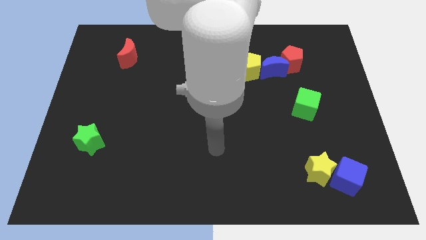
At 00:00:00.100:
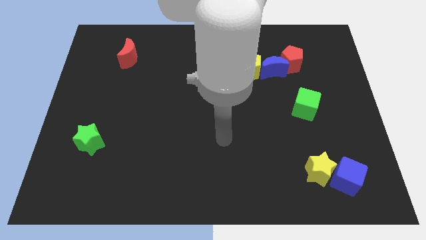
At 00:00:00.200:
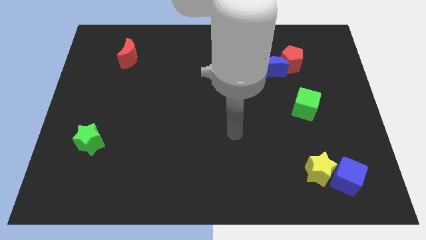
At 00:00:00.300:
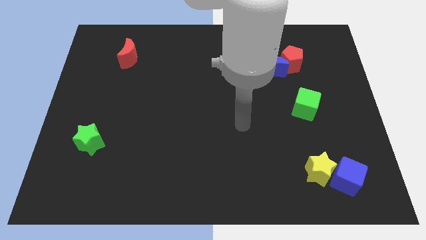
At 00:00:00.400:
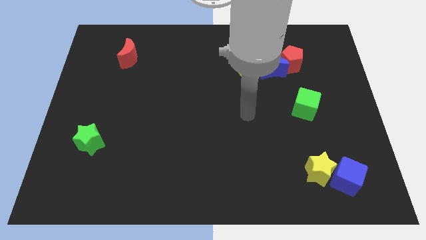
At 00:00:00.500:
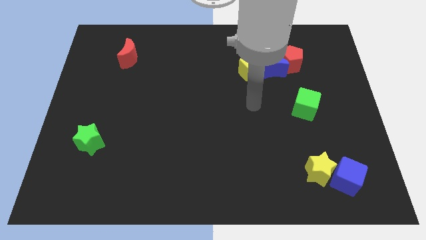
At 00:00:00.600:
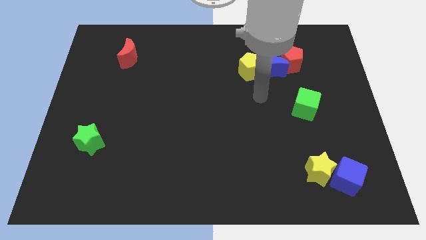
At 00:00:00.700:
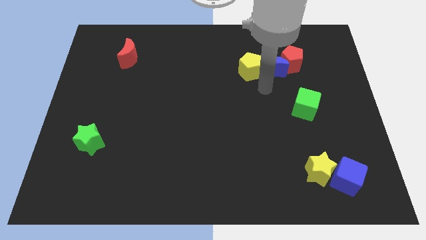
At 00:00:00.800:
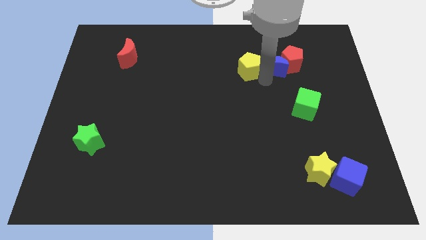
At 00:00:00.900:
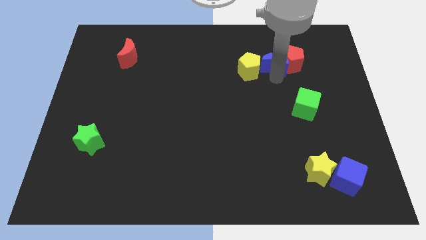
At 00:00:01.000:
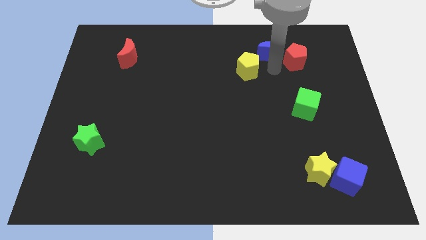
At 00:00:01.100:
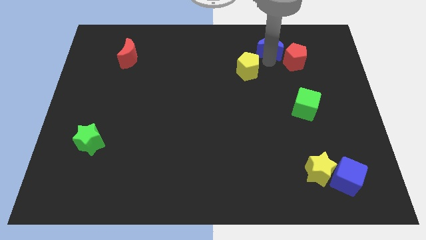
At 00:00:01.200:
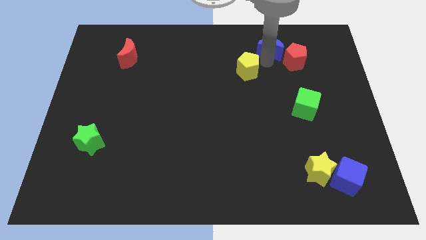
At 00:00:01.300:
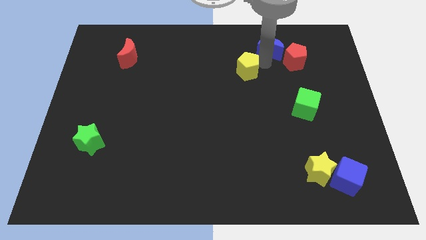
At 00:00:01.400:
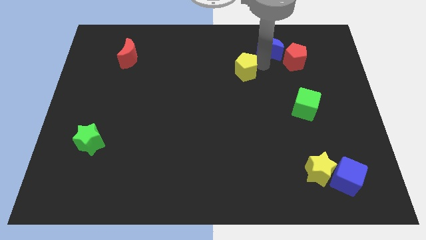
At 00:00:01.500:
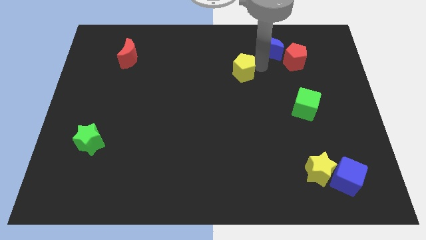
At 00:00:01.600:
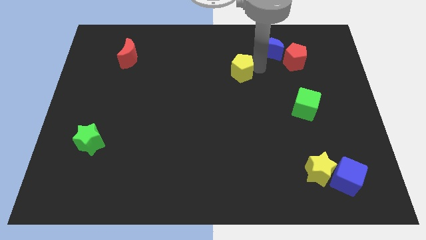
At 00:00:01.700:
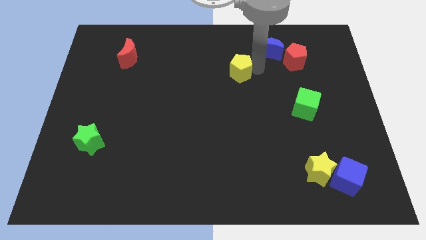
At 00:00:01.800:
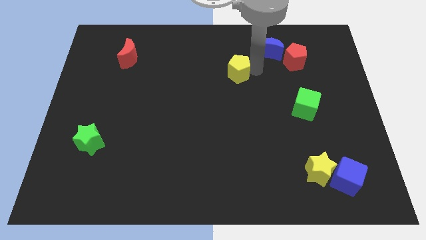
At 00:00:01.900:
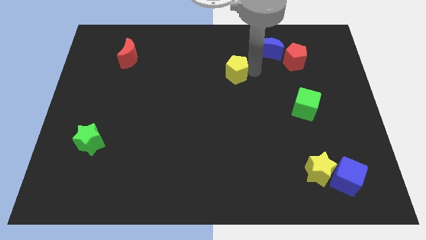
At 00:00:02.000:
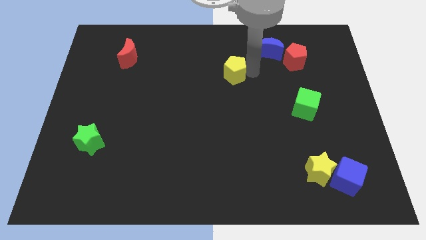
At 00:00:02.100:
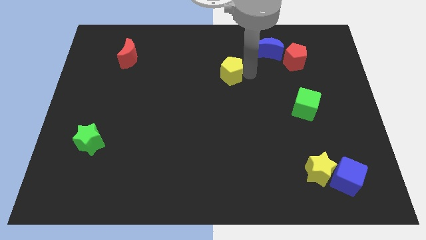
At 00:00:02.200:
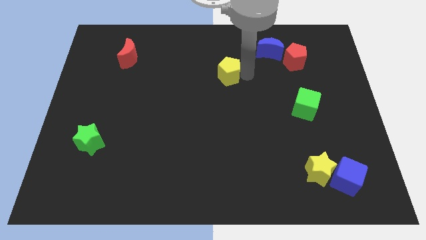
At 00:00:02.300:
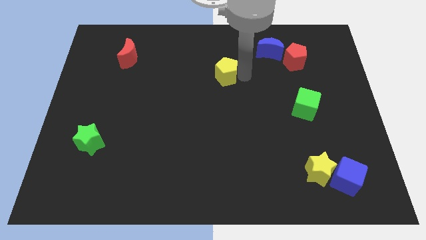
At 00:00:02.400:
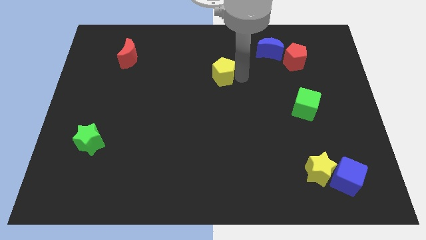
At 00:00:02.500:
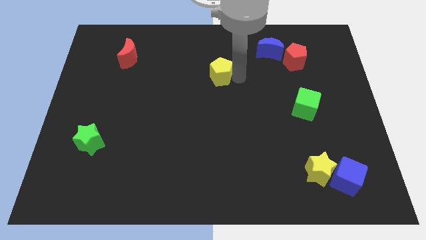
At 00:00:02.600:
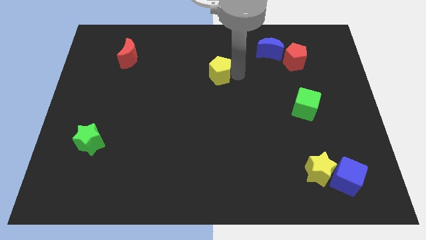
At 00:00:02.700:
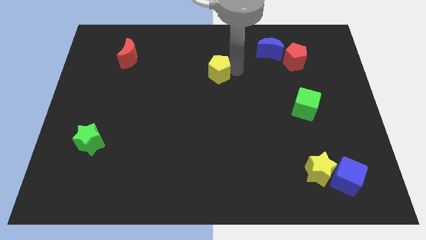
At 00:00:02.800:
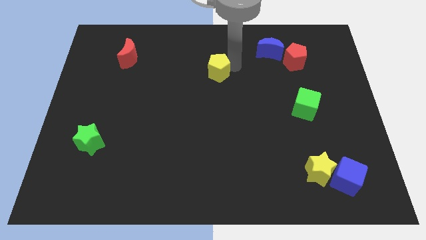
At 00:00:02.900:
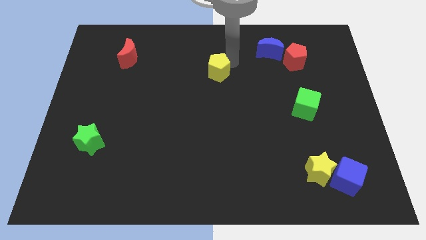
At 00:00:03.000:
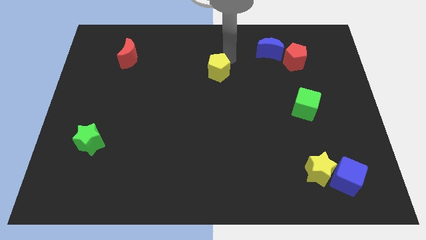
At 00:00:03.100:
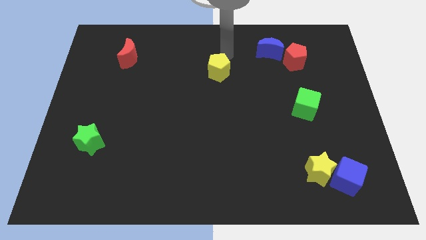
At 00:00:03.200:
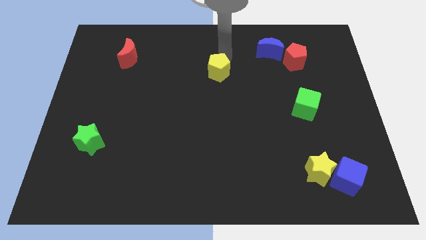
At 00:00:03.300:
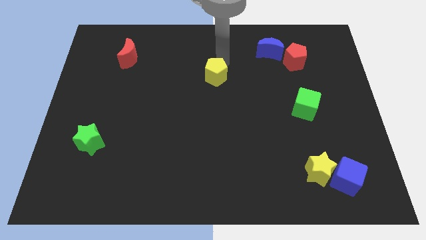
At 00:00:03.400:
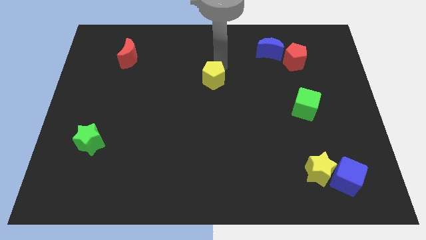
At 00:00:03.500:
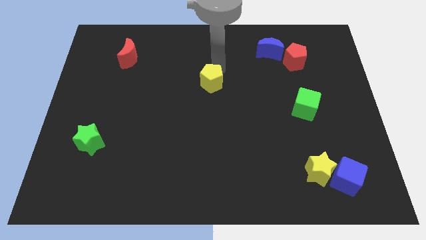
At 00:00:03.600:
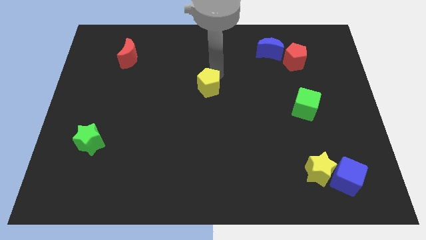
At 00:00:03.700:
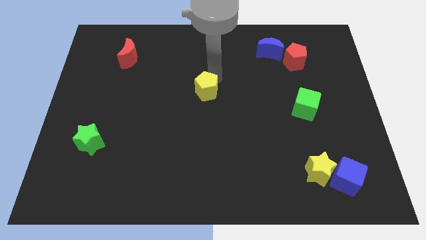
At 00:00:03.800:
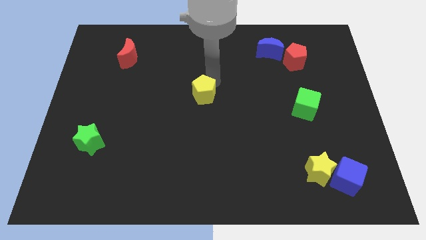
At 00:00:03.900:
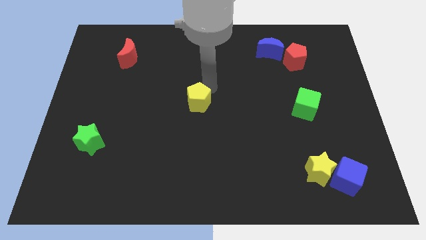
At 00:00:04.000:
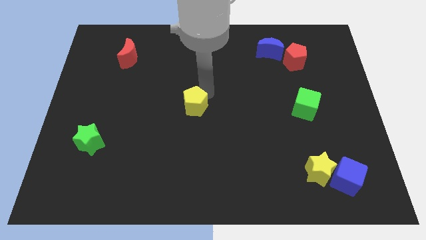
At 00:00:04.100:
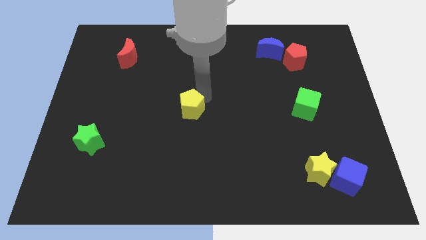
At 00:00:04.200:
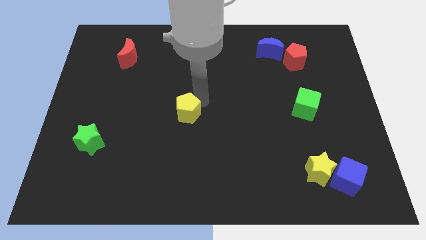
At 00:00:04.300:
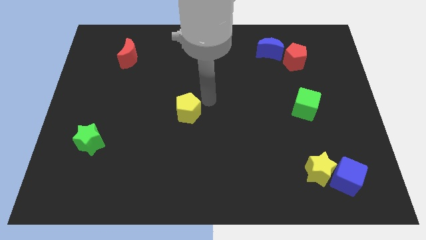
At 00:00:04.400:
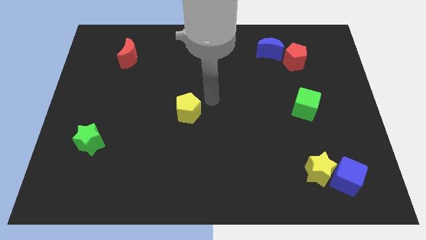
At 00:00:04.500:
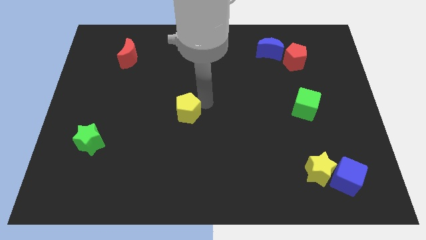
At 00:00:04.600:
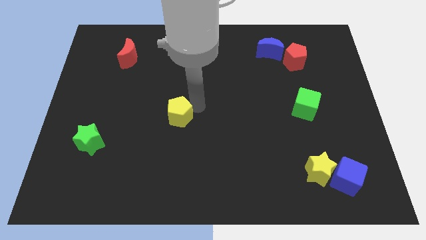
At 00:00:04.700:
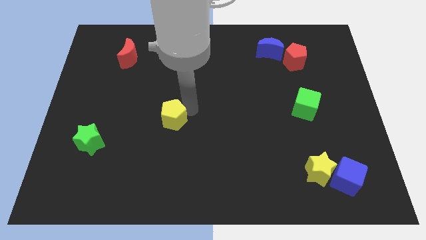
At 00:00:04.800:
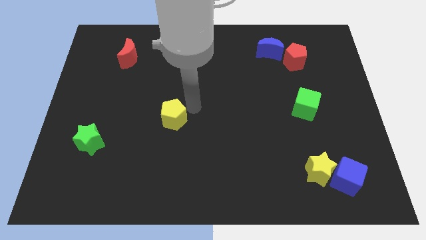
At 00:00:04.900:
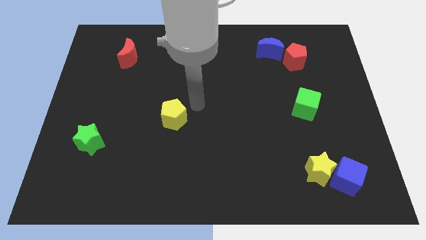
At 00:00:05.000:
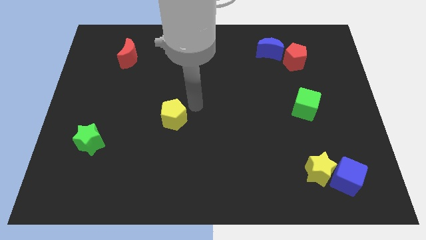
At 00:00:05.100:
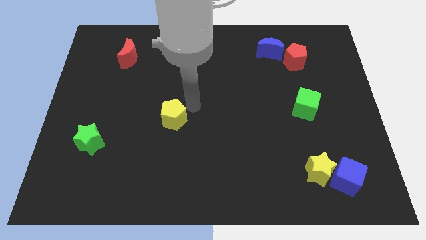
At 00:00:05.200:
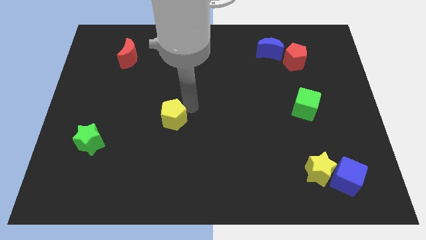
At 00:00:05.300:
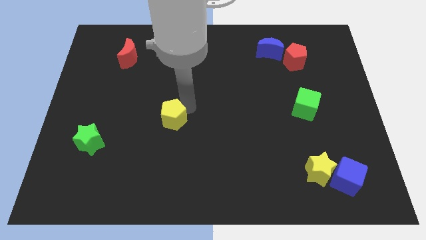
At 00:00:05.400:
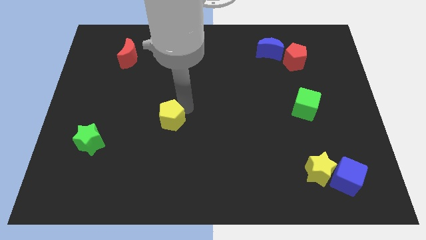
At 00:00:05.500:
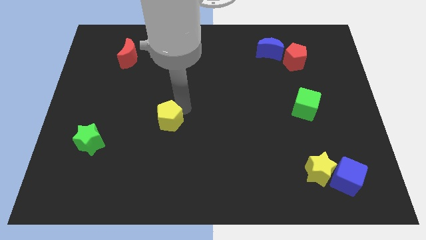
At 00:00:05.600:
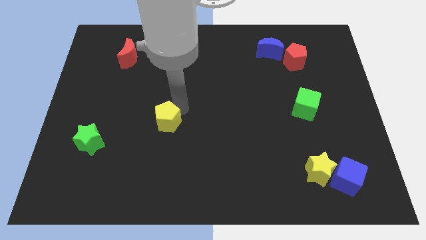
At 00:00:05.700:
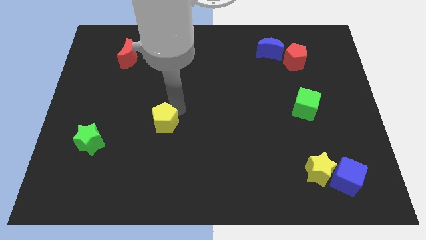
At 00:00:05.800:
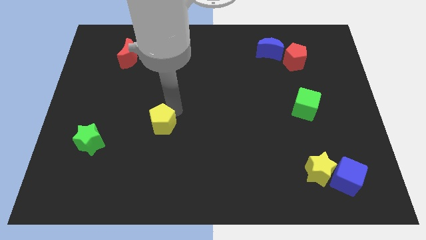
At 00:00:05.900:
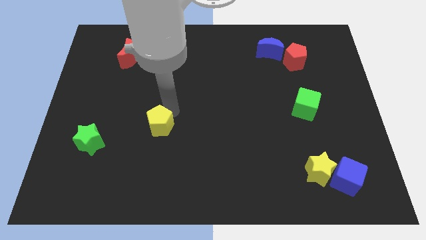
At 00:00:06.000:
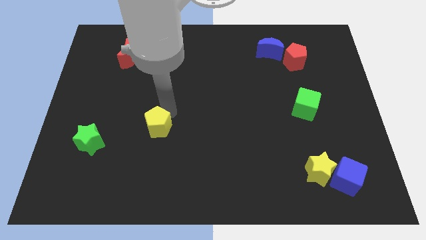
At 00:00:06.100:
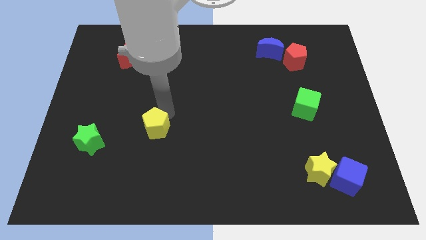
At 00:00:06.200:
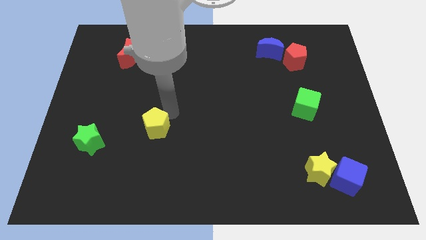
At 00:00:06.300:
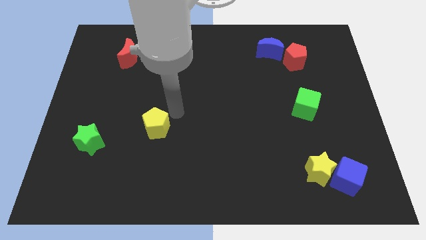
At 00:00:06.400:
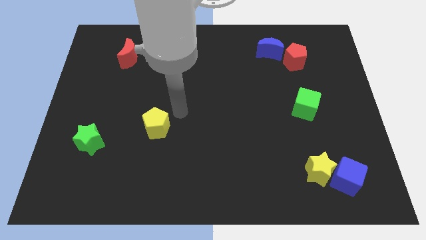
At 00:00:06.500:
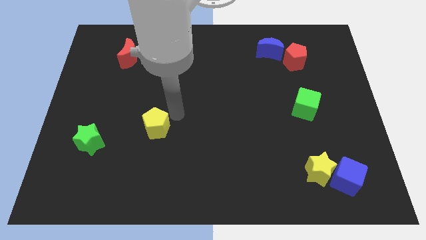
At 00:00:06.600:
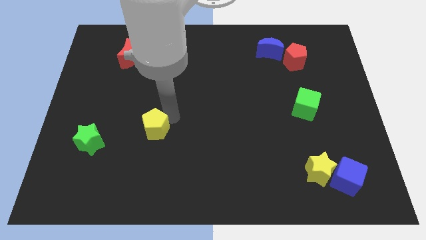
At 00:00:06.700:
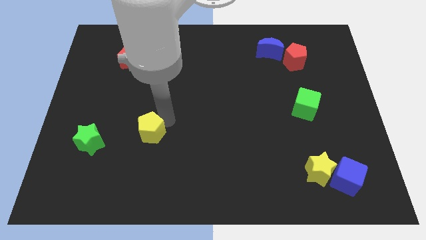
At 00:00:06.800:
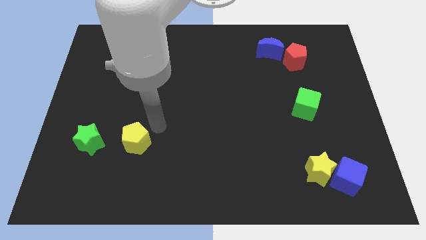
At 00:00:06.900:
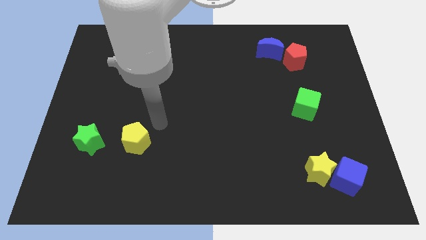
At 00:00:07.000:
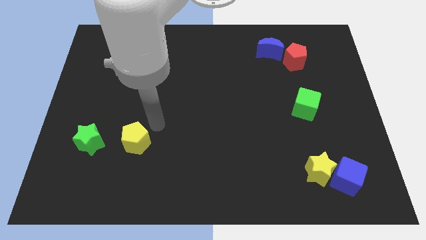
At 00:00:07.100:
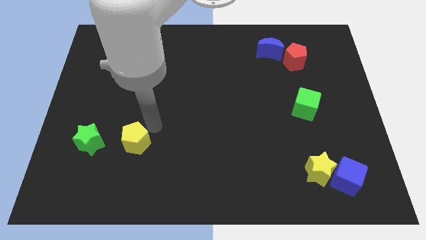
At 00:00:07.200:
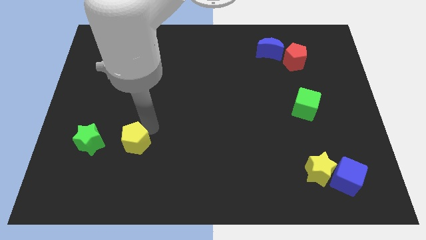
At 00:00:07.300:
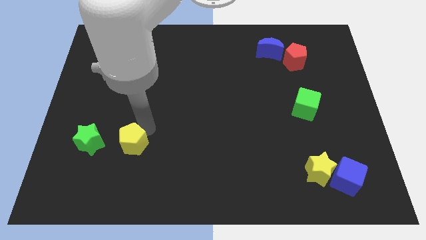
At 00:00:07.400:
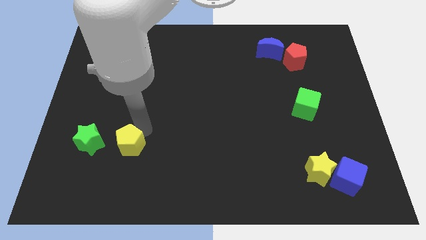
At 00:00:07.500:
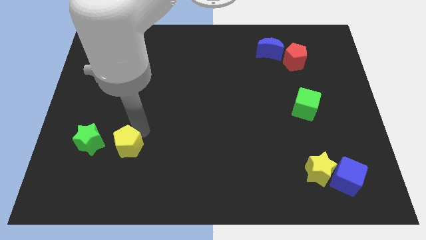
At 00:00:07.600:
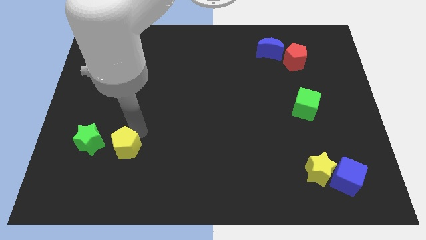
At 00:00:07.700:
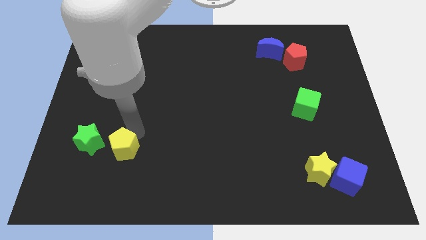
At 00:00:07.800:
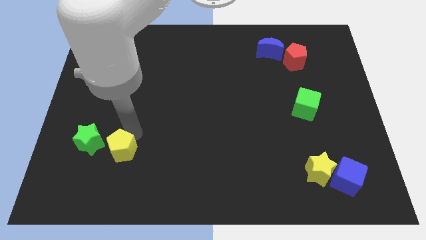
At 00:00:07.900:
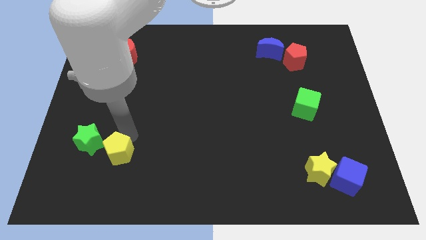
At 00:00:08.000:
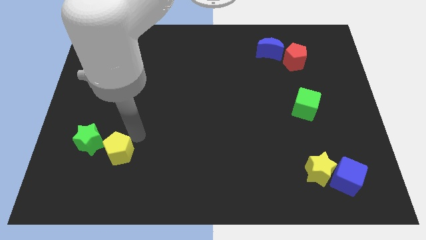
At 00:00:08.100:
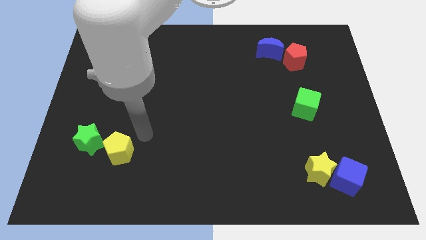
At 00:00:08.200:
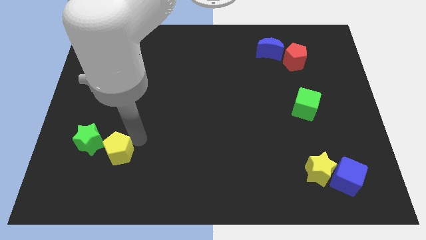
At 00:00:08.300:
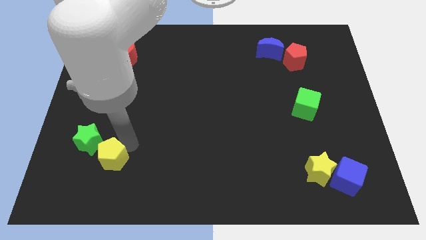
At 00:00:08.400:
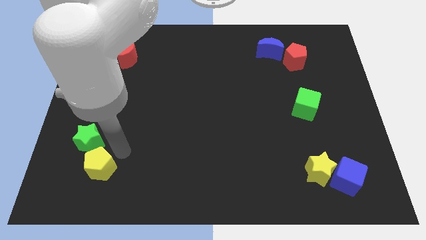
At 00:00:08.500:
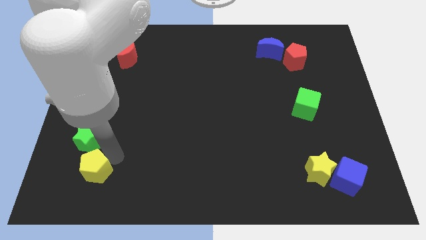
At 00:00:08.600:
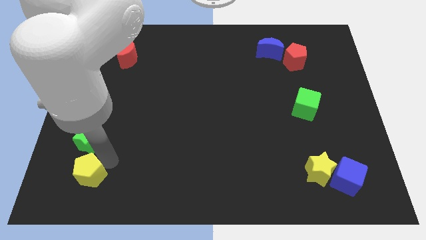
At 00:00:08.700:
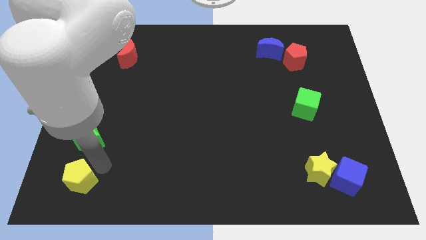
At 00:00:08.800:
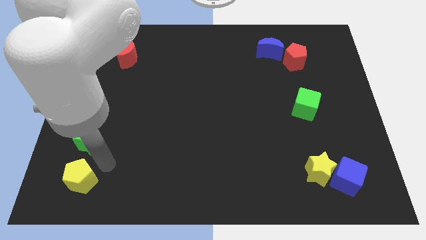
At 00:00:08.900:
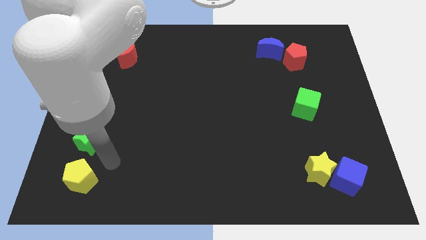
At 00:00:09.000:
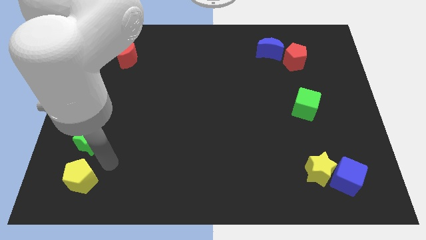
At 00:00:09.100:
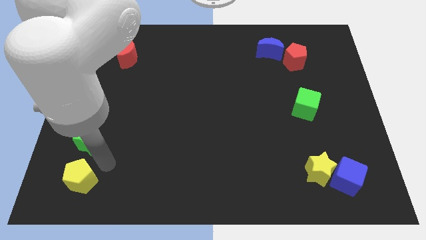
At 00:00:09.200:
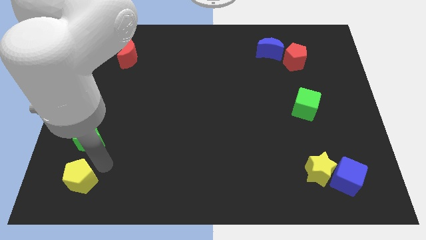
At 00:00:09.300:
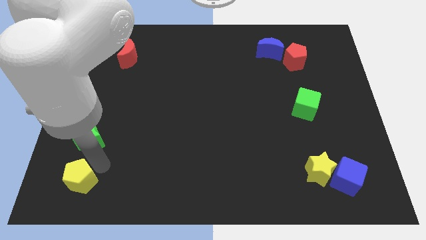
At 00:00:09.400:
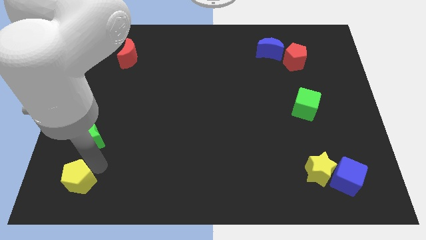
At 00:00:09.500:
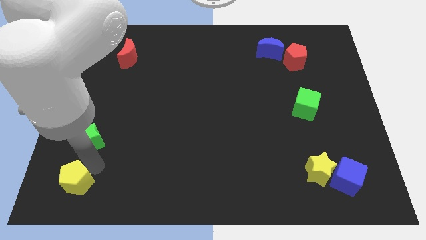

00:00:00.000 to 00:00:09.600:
put the yellow pentagon to the bottom left
